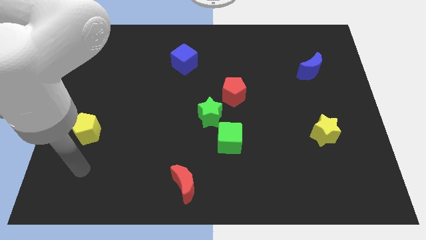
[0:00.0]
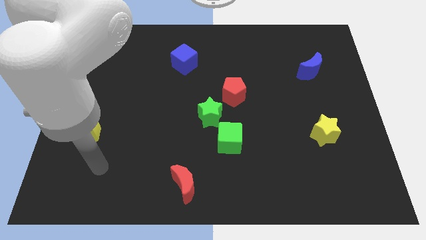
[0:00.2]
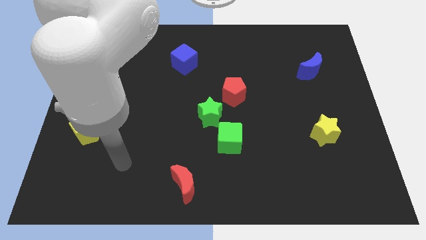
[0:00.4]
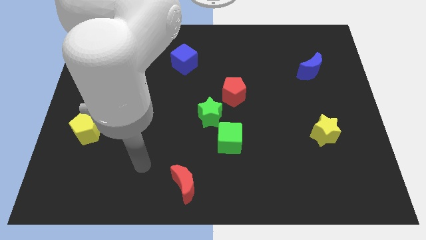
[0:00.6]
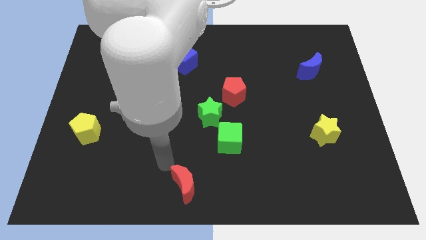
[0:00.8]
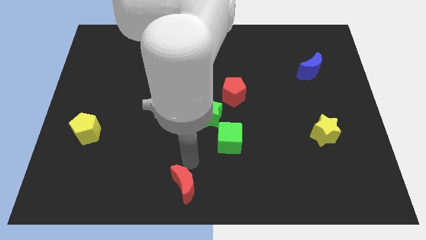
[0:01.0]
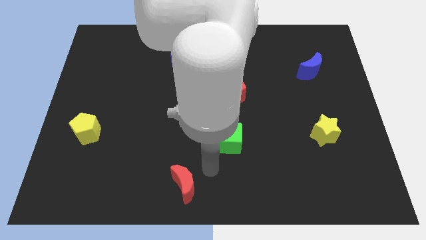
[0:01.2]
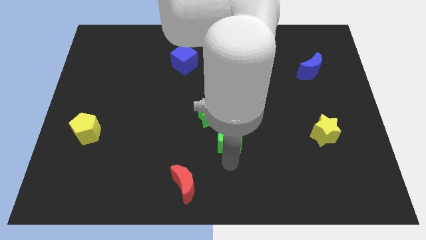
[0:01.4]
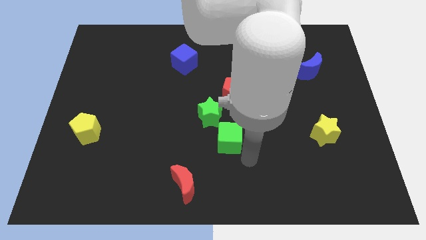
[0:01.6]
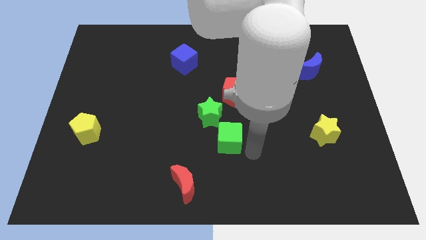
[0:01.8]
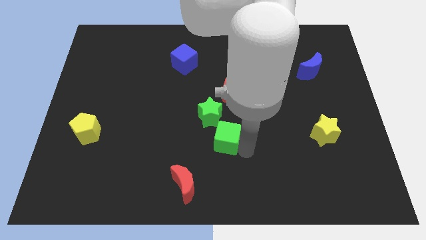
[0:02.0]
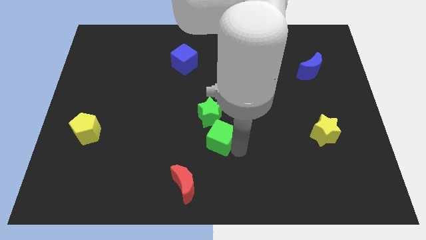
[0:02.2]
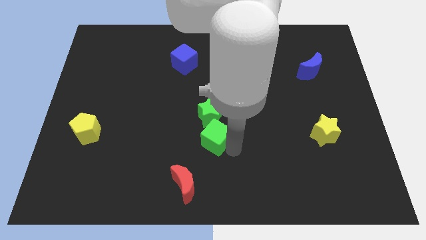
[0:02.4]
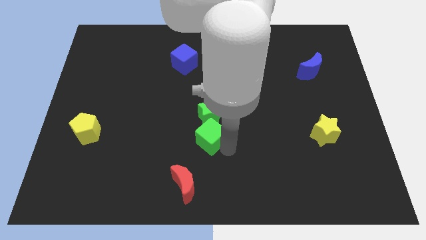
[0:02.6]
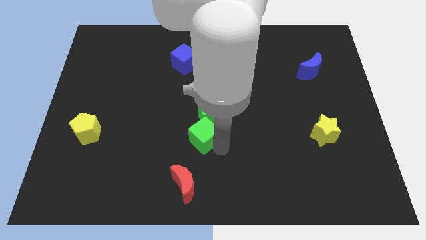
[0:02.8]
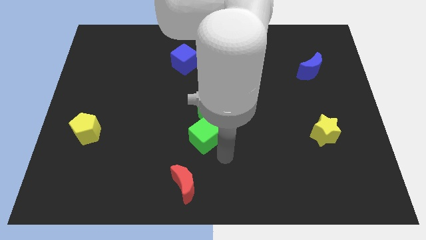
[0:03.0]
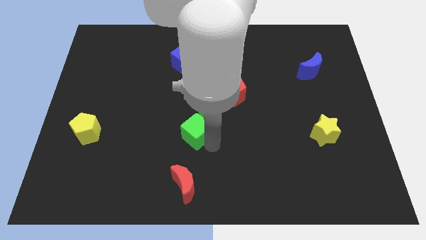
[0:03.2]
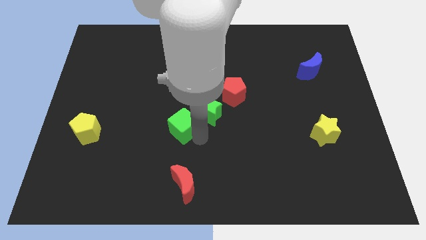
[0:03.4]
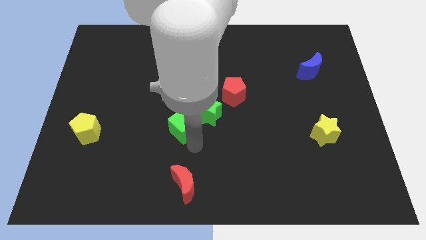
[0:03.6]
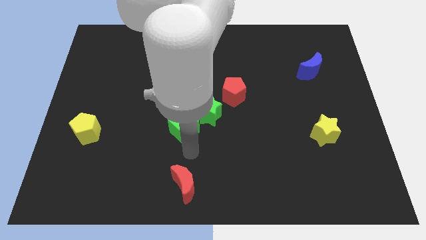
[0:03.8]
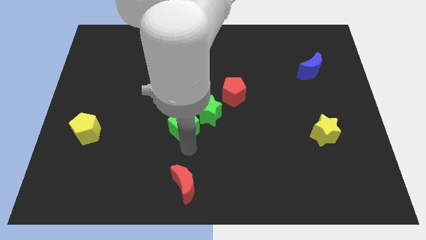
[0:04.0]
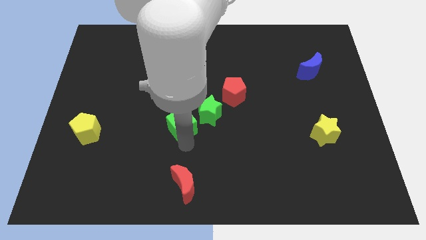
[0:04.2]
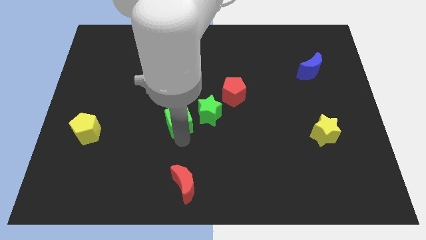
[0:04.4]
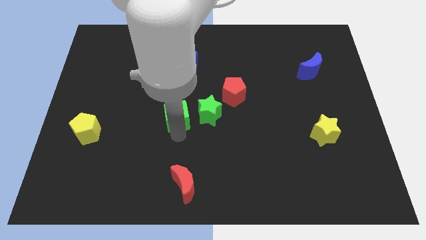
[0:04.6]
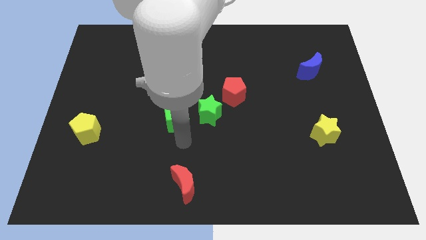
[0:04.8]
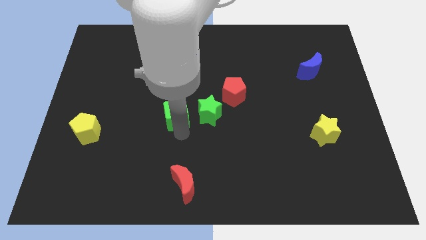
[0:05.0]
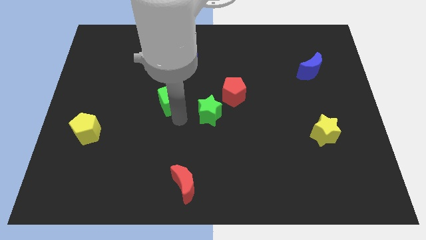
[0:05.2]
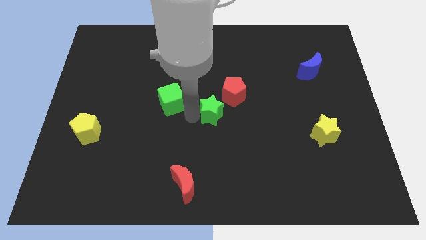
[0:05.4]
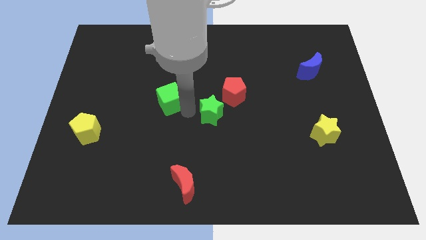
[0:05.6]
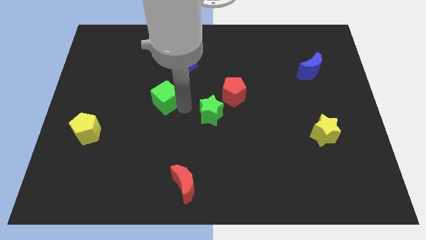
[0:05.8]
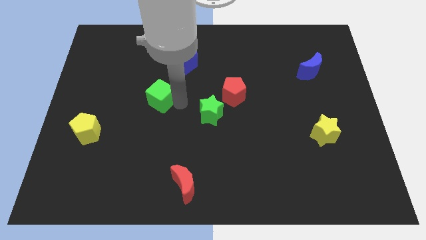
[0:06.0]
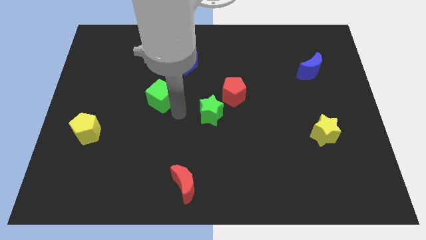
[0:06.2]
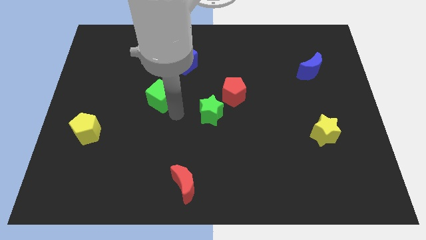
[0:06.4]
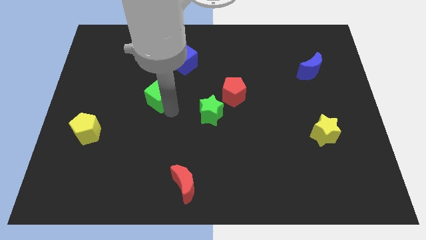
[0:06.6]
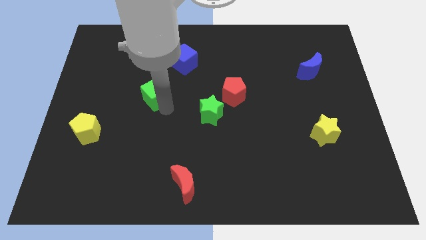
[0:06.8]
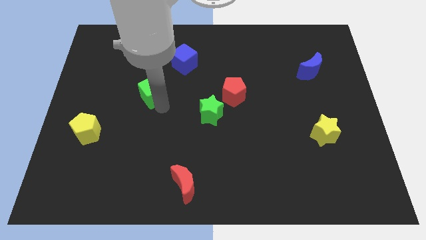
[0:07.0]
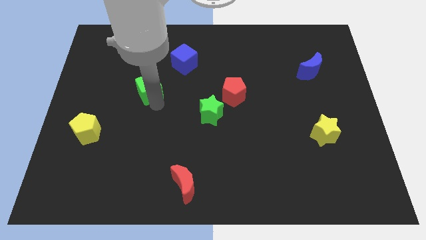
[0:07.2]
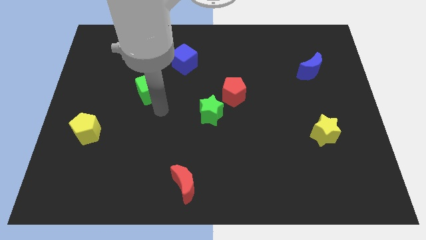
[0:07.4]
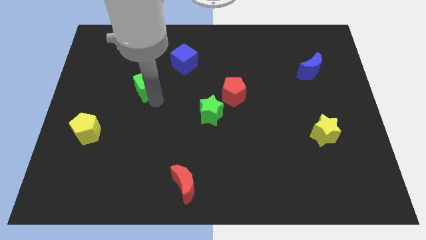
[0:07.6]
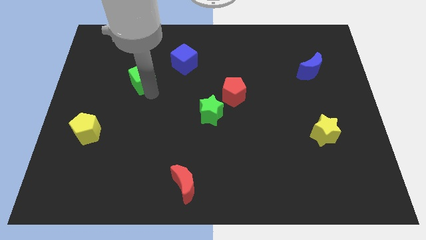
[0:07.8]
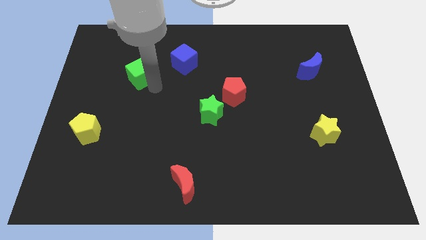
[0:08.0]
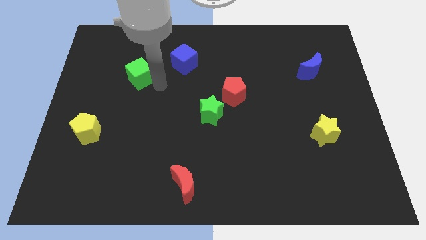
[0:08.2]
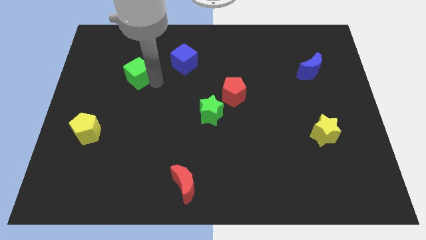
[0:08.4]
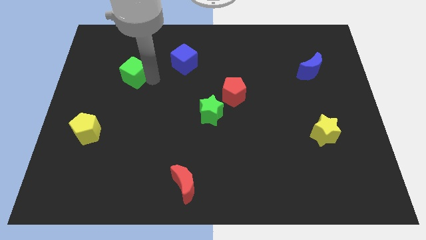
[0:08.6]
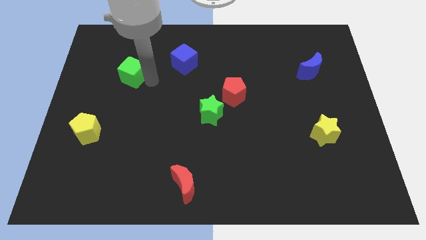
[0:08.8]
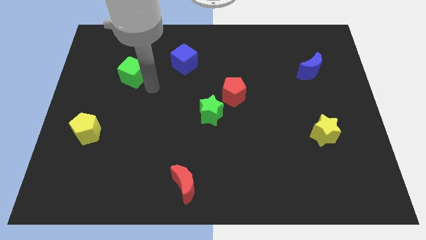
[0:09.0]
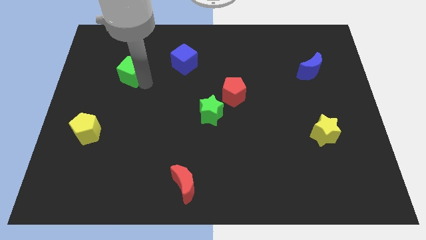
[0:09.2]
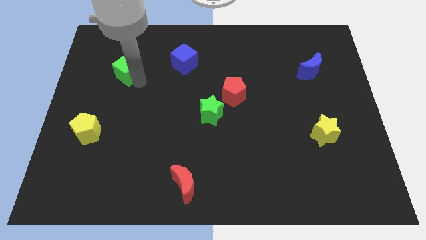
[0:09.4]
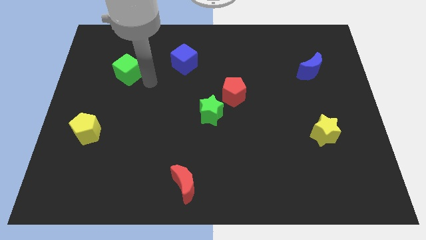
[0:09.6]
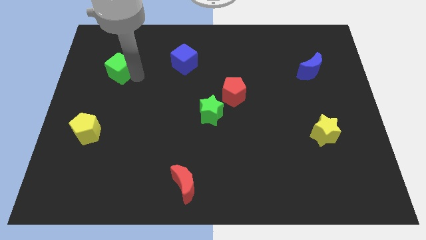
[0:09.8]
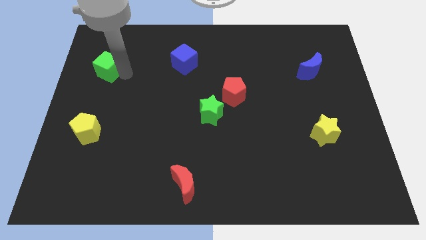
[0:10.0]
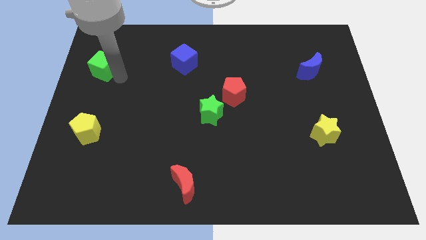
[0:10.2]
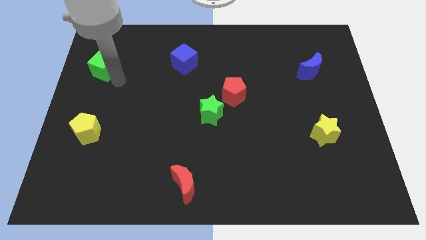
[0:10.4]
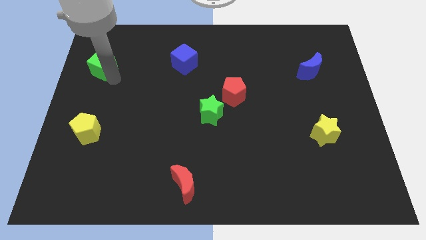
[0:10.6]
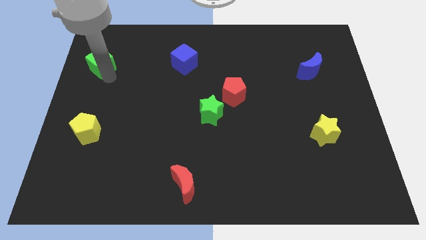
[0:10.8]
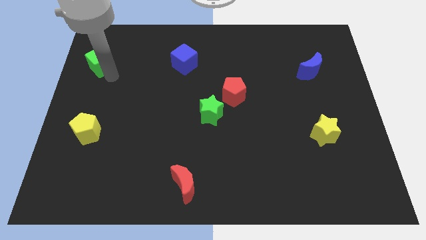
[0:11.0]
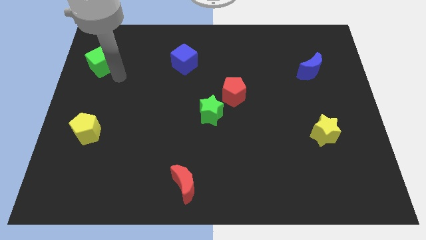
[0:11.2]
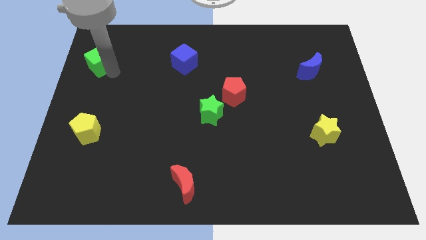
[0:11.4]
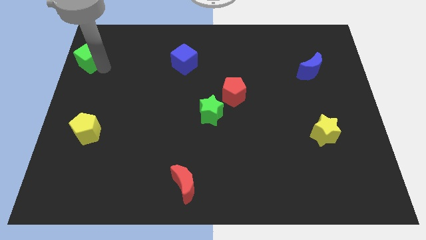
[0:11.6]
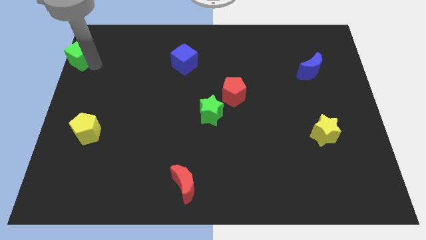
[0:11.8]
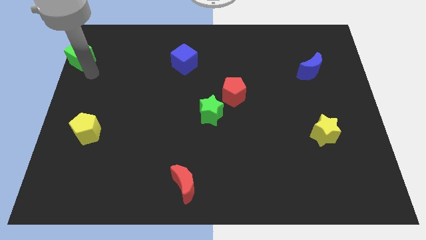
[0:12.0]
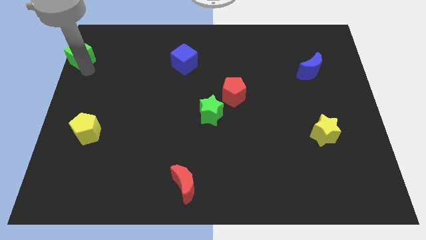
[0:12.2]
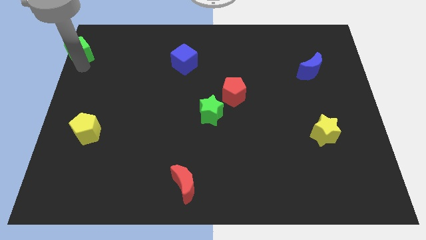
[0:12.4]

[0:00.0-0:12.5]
push the green cube to the top left corner

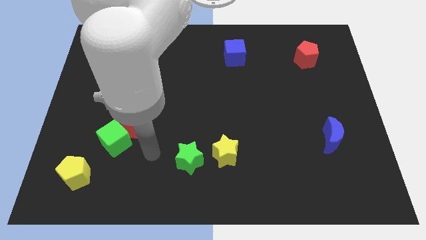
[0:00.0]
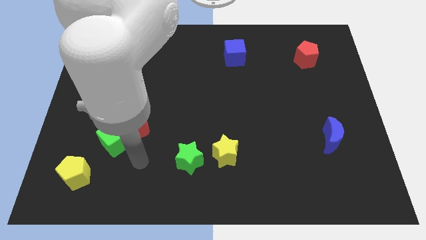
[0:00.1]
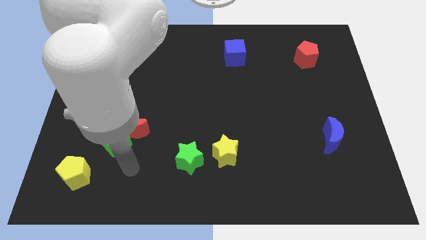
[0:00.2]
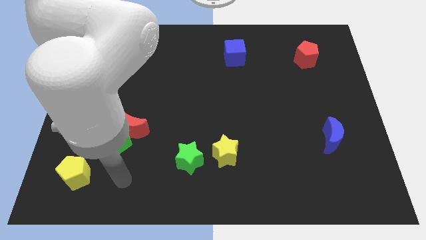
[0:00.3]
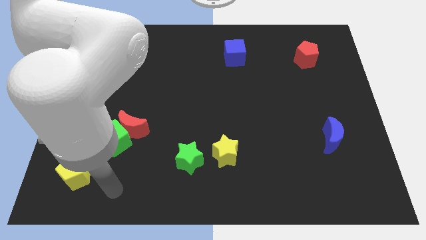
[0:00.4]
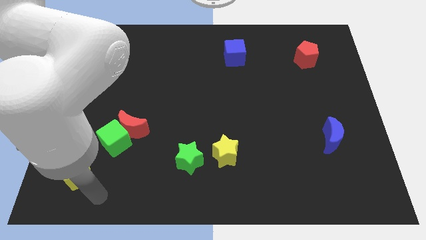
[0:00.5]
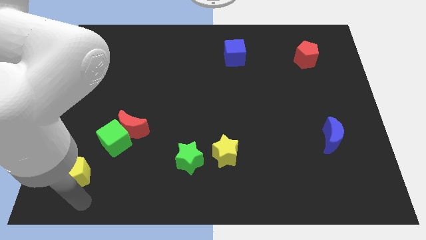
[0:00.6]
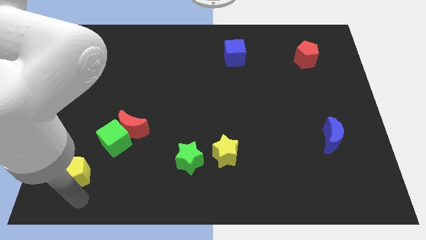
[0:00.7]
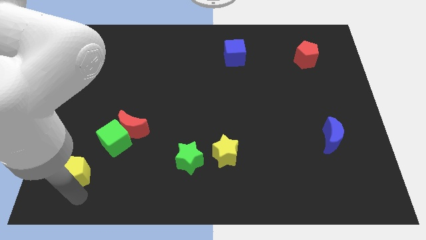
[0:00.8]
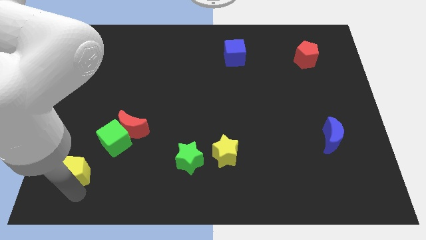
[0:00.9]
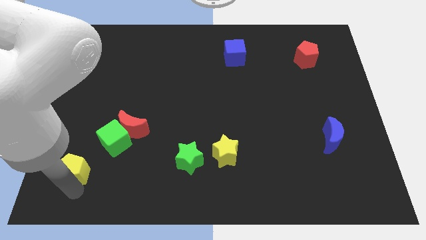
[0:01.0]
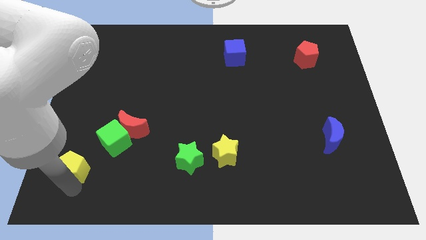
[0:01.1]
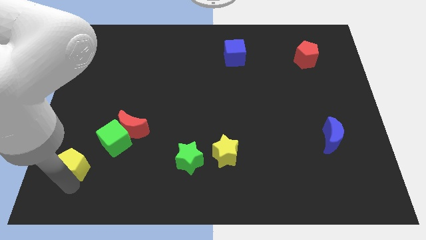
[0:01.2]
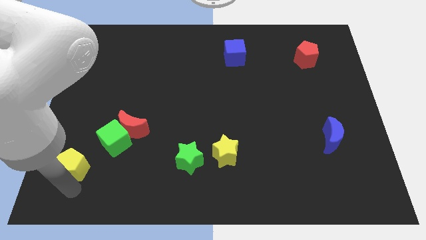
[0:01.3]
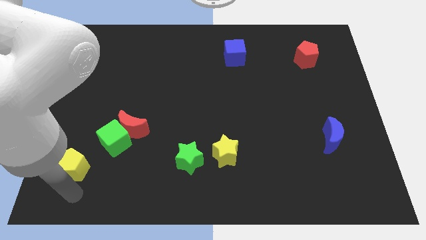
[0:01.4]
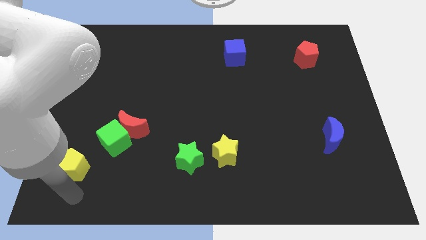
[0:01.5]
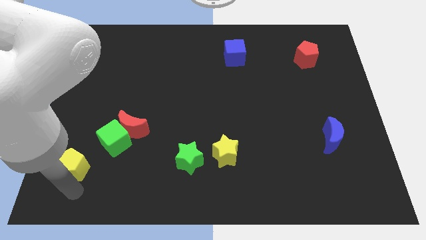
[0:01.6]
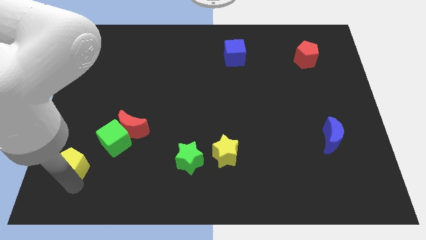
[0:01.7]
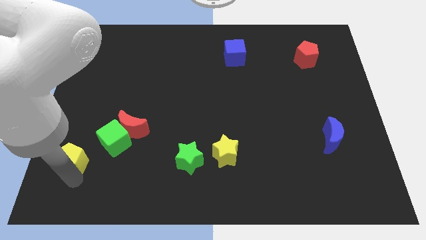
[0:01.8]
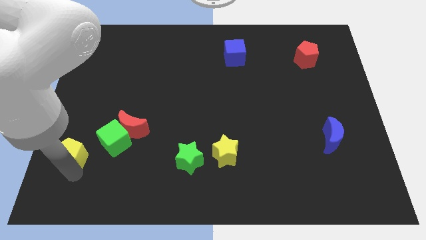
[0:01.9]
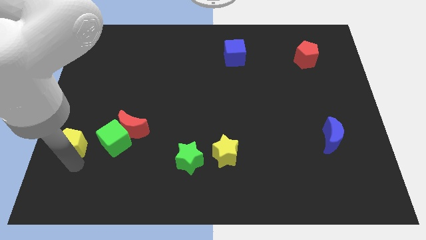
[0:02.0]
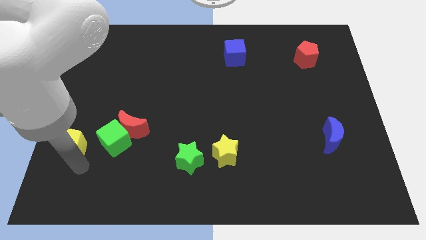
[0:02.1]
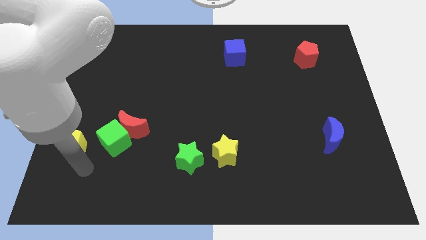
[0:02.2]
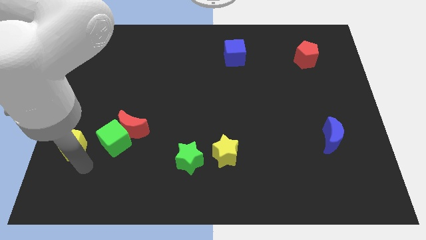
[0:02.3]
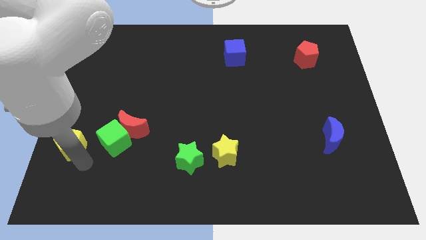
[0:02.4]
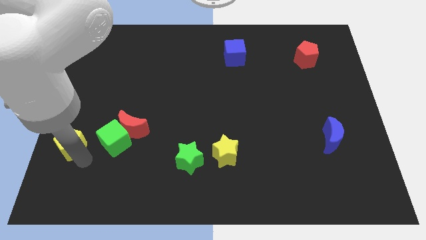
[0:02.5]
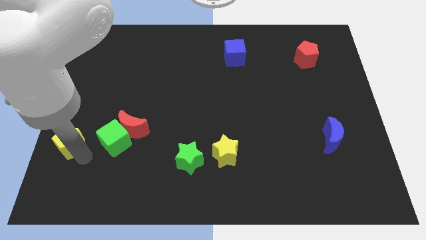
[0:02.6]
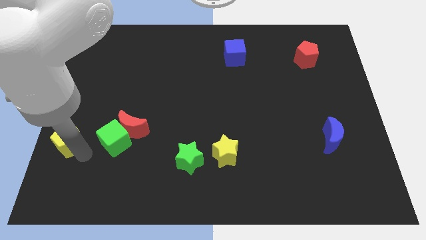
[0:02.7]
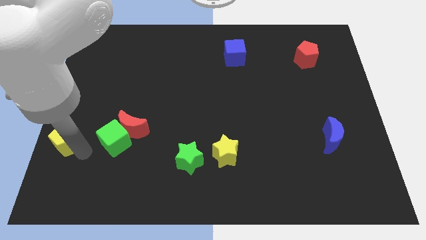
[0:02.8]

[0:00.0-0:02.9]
slide the yellow pentagon to the left side
